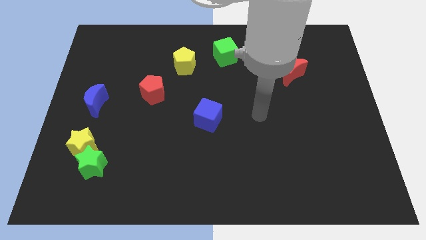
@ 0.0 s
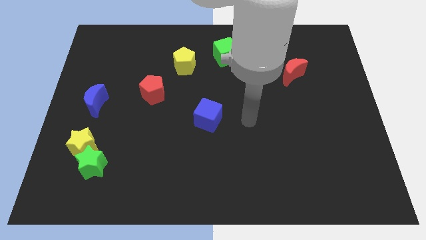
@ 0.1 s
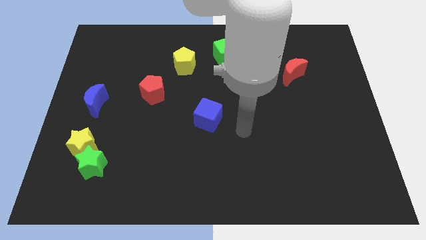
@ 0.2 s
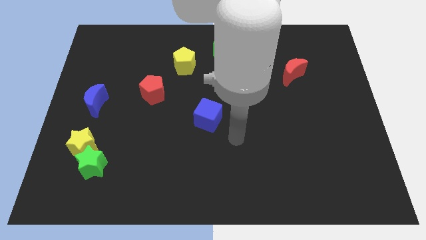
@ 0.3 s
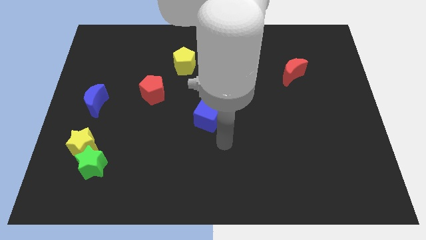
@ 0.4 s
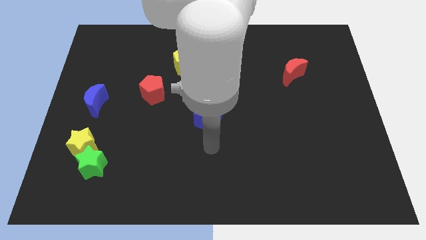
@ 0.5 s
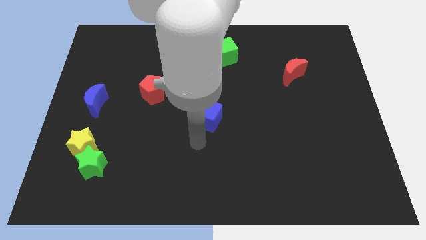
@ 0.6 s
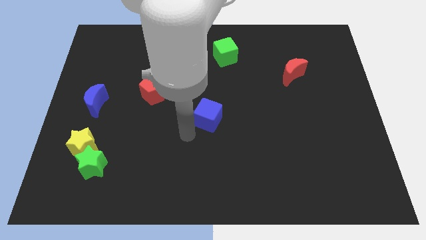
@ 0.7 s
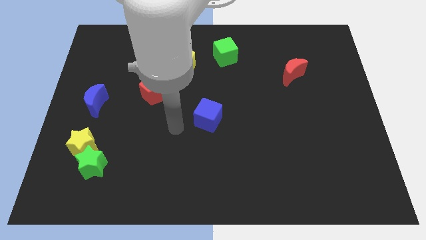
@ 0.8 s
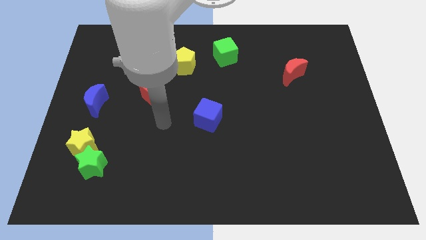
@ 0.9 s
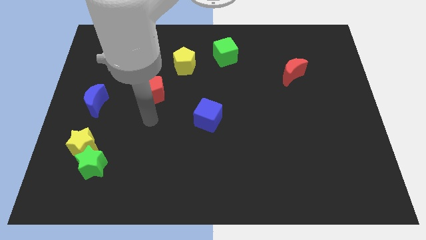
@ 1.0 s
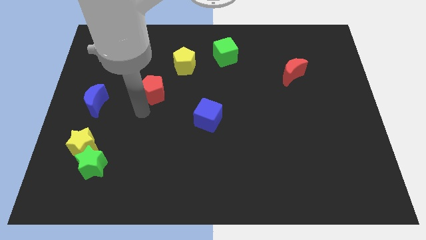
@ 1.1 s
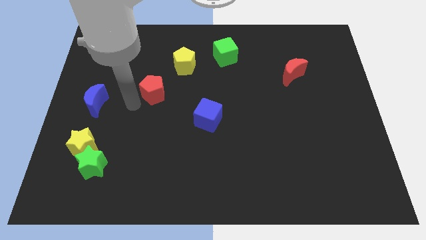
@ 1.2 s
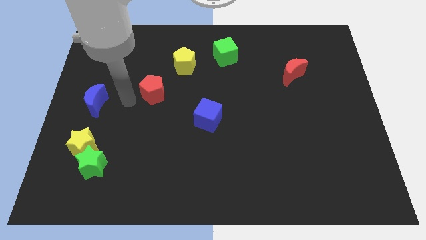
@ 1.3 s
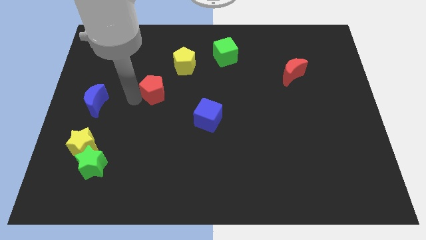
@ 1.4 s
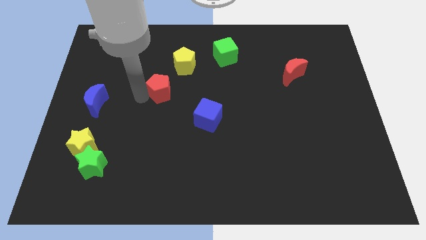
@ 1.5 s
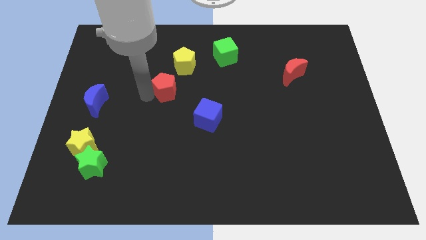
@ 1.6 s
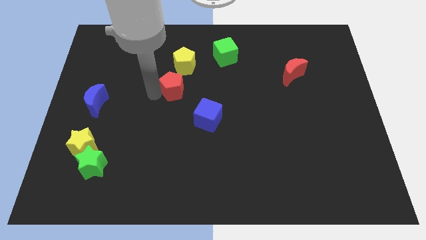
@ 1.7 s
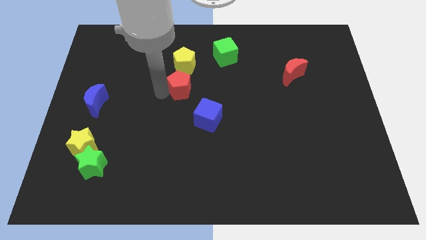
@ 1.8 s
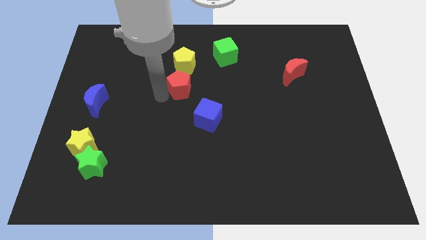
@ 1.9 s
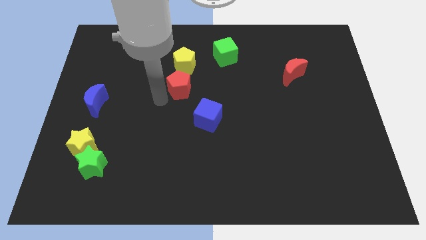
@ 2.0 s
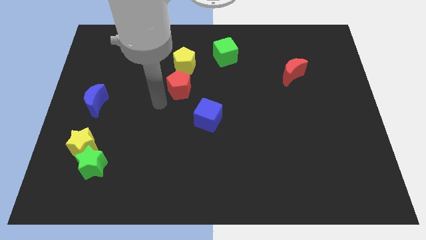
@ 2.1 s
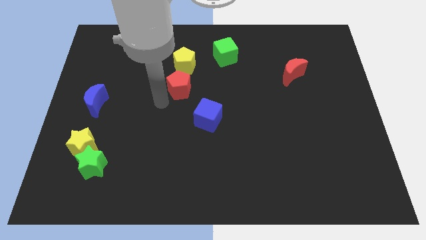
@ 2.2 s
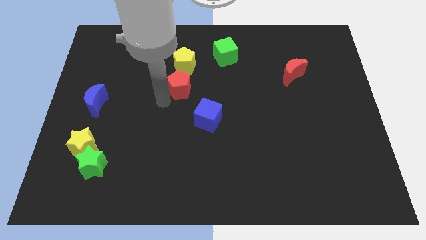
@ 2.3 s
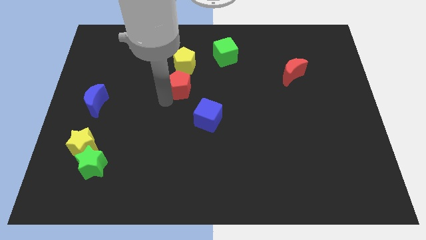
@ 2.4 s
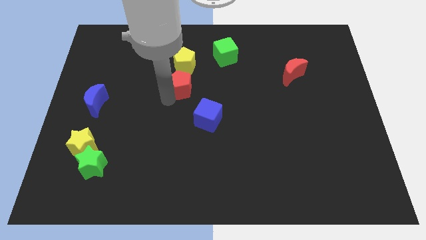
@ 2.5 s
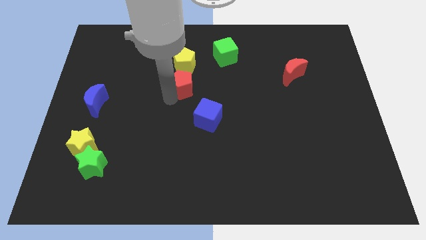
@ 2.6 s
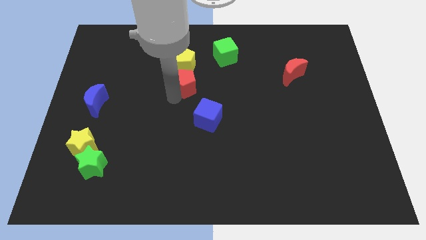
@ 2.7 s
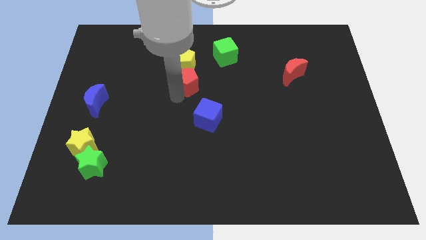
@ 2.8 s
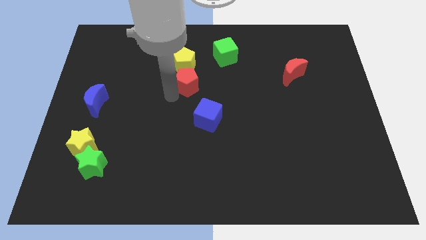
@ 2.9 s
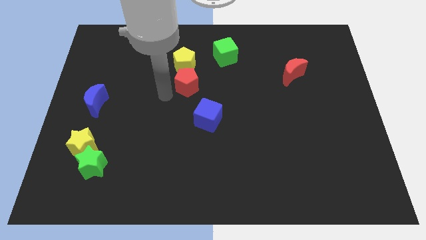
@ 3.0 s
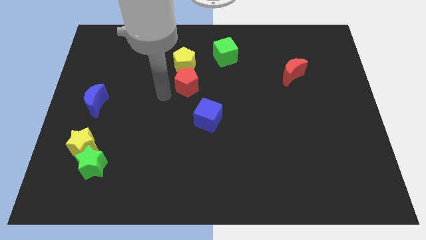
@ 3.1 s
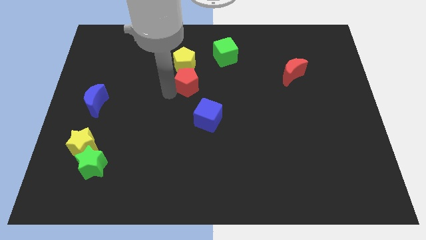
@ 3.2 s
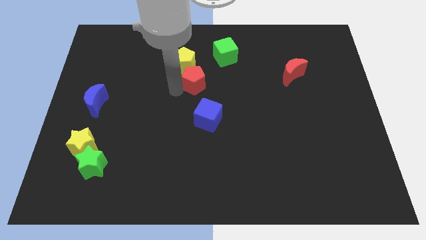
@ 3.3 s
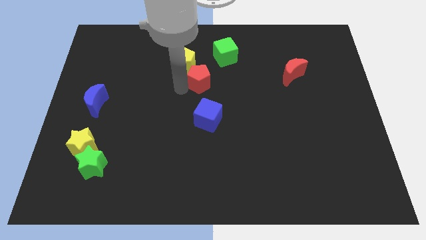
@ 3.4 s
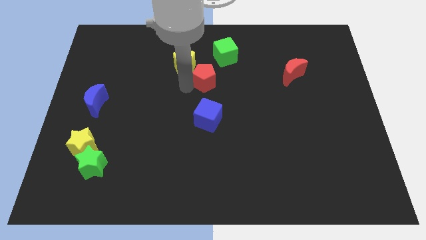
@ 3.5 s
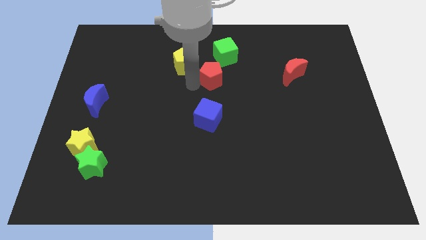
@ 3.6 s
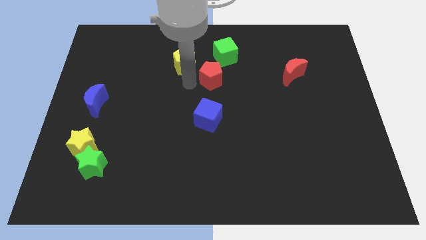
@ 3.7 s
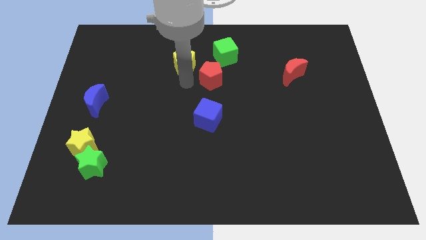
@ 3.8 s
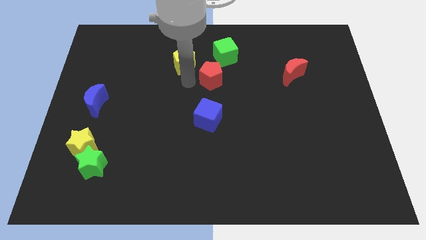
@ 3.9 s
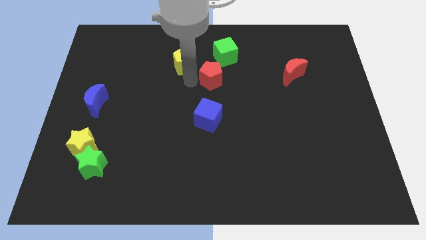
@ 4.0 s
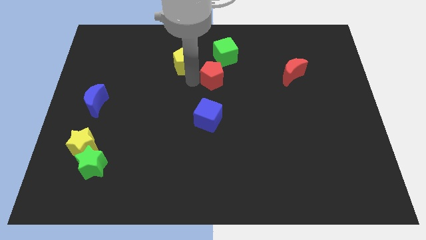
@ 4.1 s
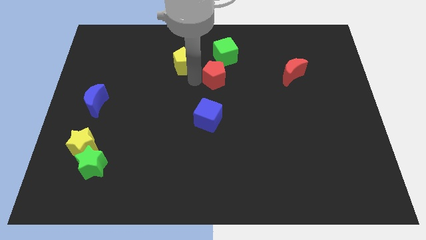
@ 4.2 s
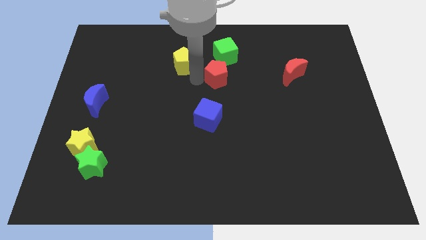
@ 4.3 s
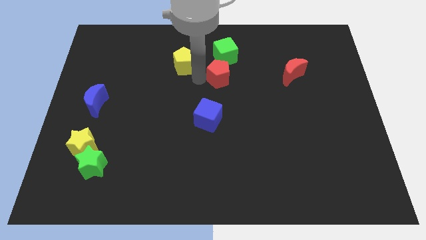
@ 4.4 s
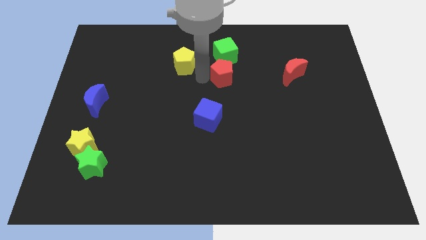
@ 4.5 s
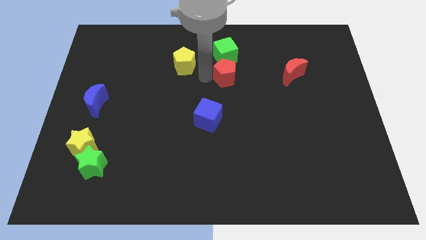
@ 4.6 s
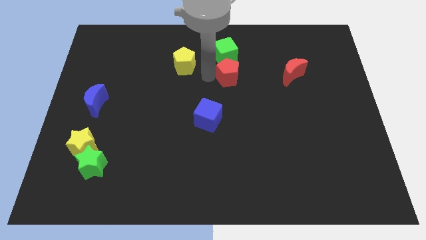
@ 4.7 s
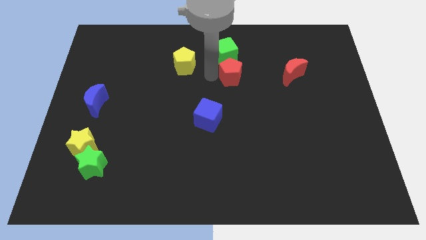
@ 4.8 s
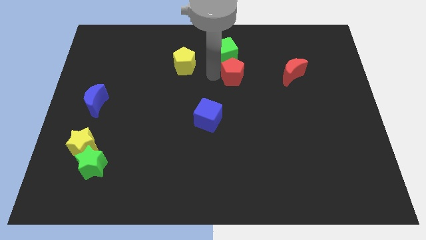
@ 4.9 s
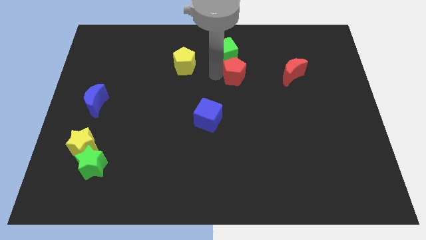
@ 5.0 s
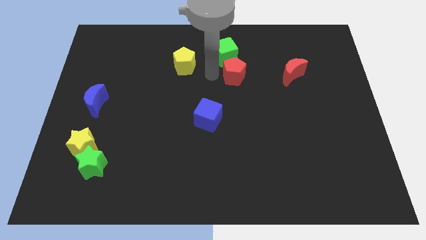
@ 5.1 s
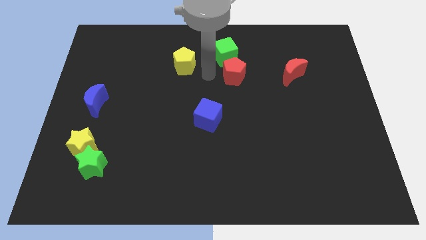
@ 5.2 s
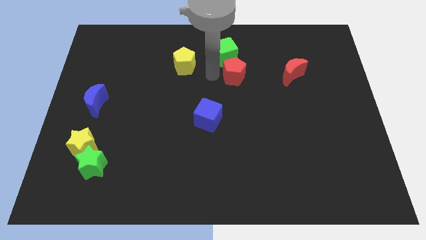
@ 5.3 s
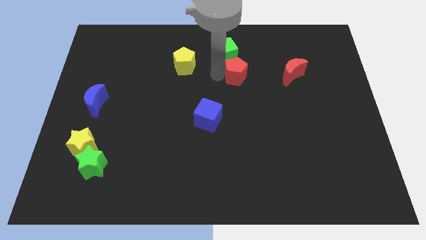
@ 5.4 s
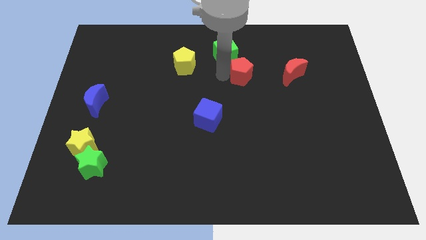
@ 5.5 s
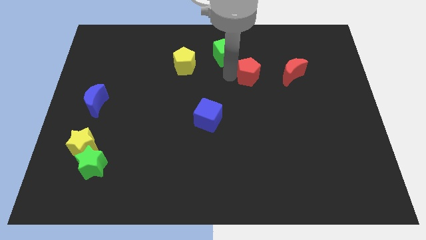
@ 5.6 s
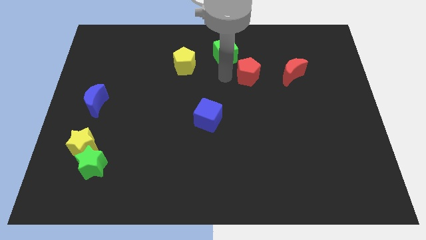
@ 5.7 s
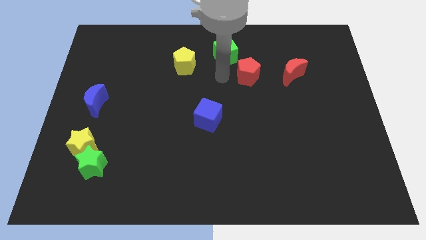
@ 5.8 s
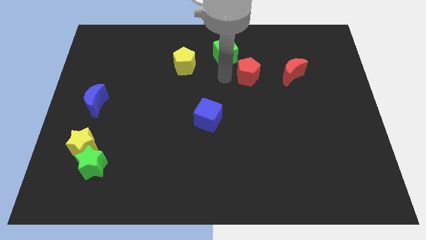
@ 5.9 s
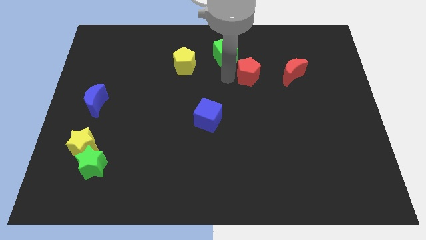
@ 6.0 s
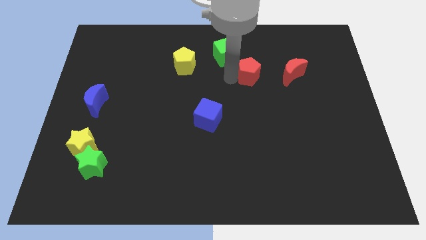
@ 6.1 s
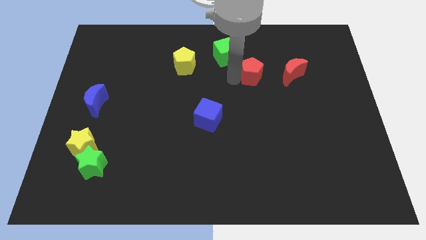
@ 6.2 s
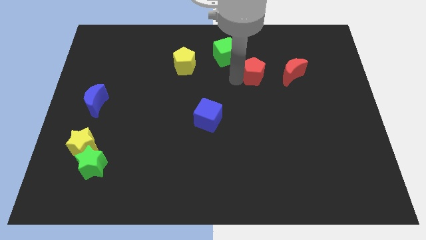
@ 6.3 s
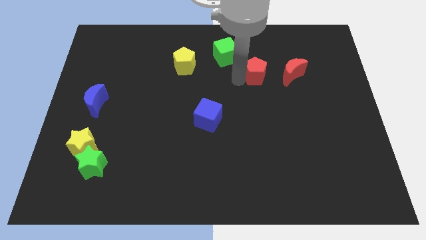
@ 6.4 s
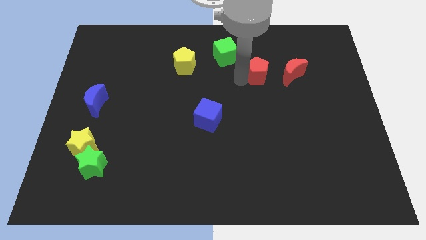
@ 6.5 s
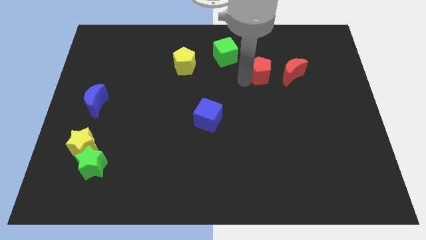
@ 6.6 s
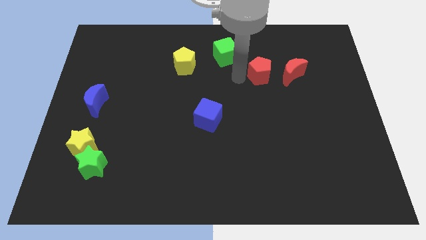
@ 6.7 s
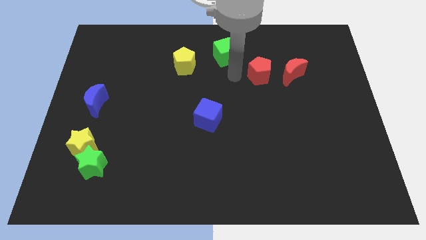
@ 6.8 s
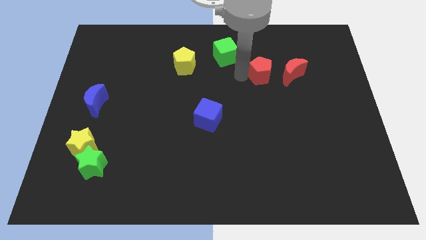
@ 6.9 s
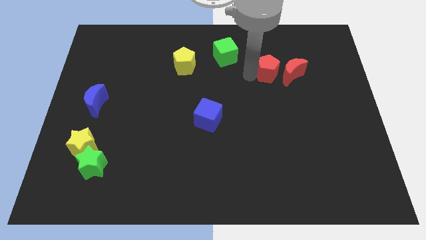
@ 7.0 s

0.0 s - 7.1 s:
push the red pentagon next to the red moon
